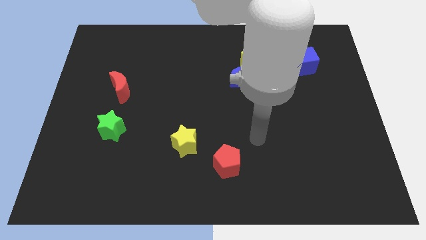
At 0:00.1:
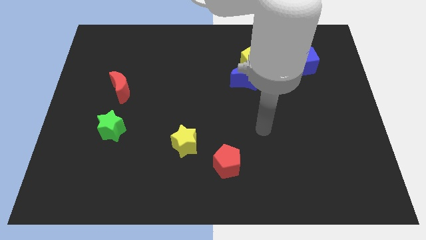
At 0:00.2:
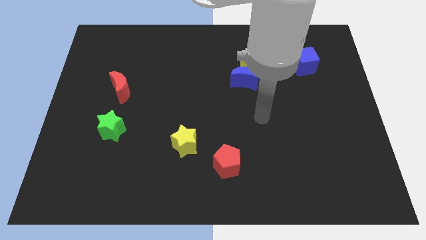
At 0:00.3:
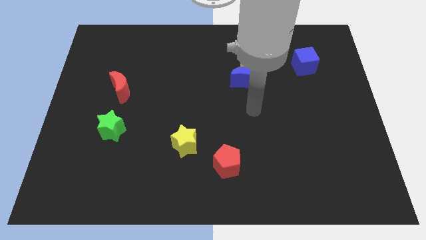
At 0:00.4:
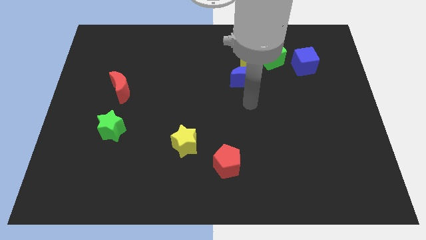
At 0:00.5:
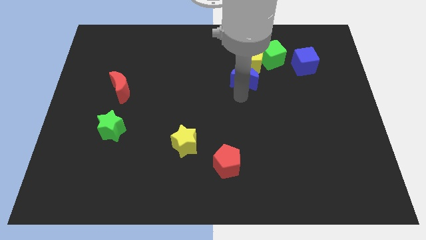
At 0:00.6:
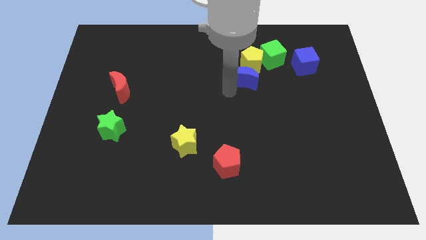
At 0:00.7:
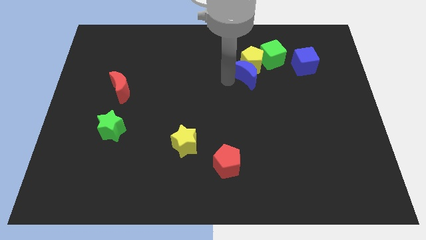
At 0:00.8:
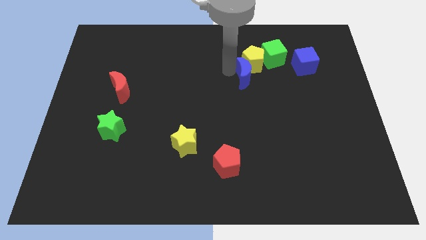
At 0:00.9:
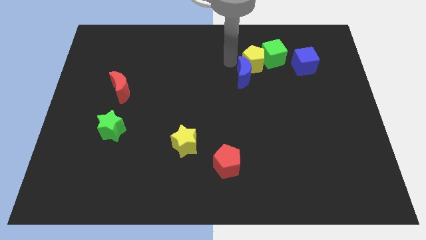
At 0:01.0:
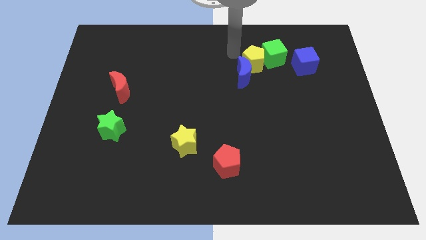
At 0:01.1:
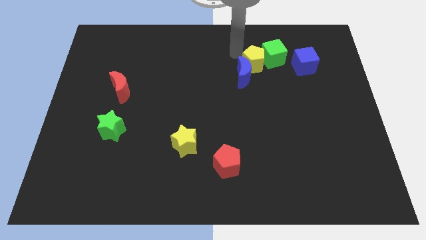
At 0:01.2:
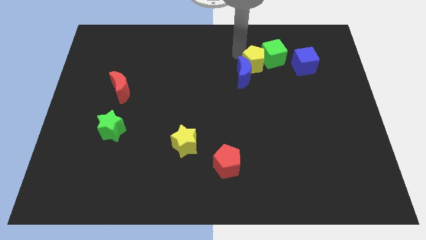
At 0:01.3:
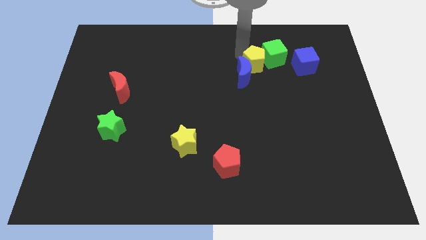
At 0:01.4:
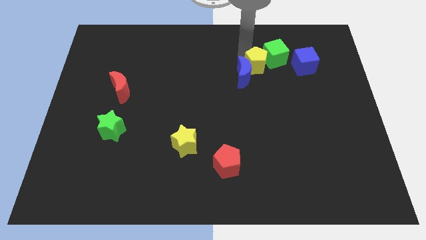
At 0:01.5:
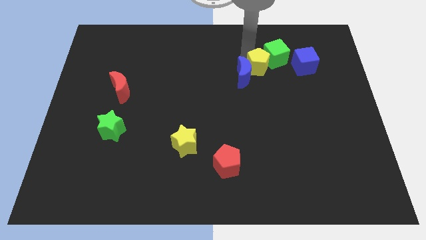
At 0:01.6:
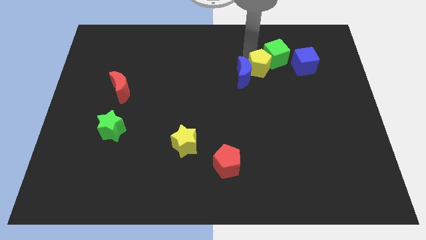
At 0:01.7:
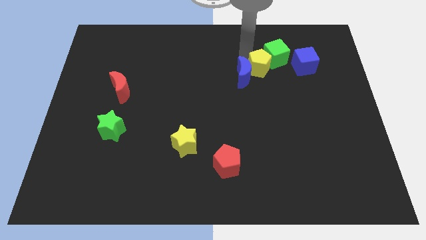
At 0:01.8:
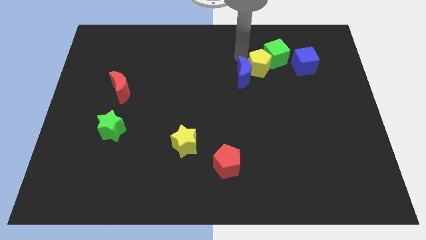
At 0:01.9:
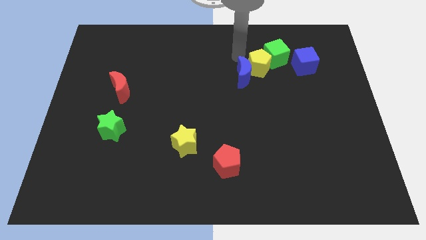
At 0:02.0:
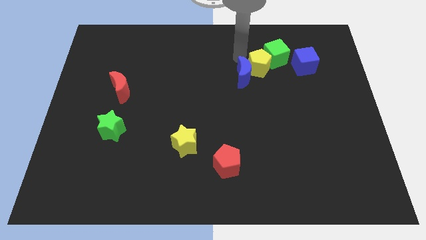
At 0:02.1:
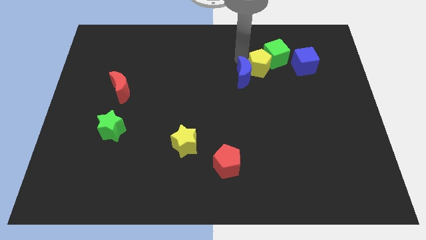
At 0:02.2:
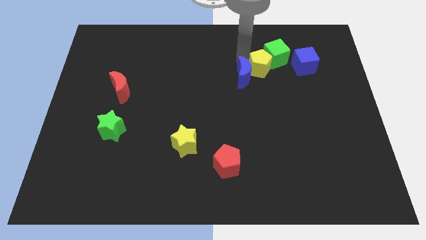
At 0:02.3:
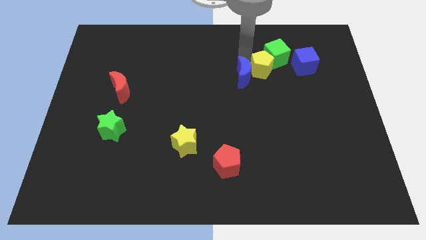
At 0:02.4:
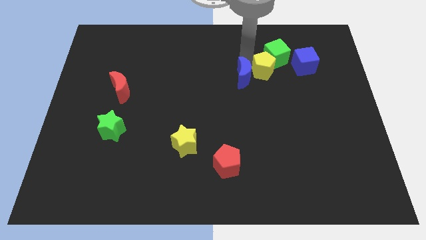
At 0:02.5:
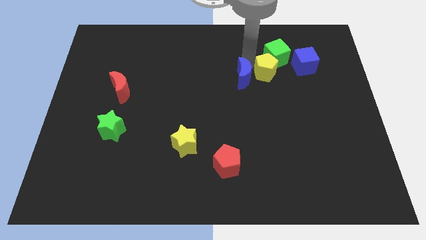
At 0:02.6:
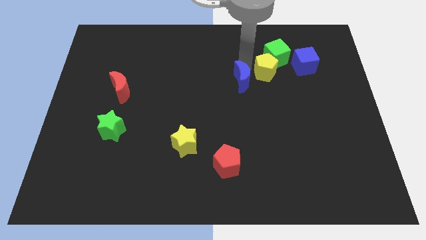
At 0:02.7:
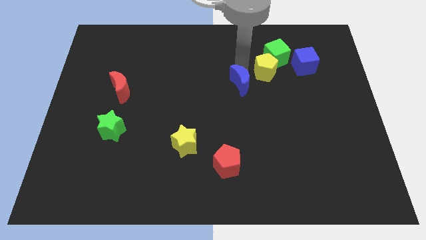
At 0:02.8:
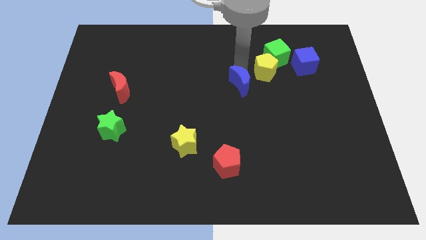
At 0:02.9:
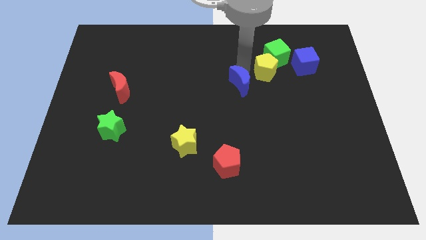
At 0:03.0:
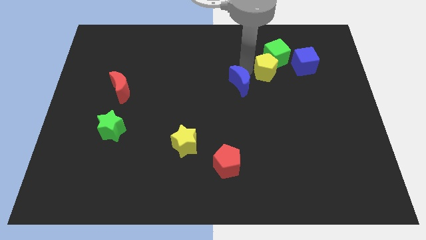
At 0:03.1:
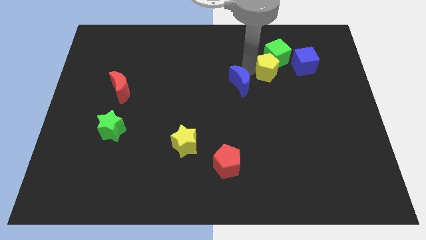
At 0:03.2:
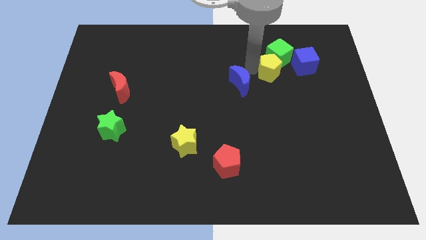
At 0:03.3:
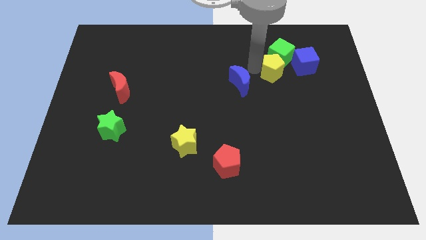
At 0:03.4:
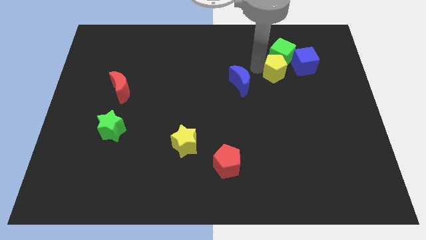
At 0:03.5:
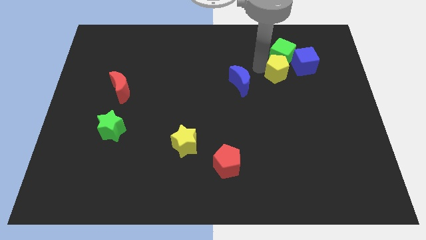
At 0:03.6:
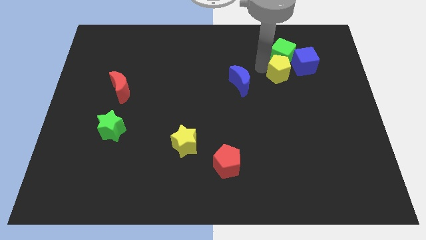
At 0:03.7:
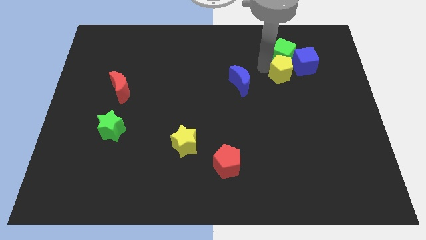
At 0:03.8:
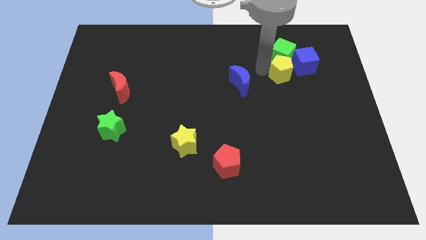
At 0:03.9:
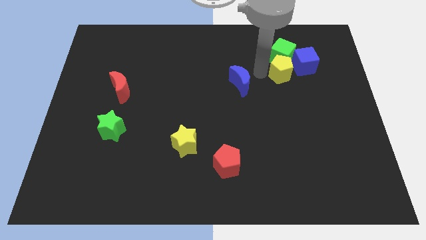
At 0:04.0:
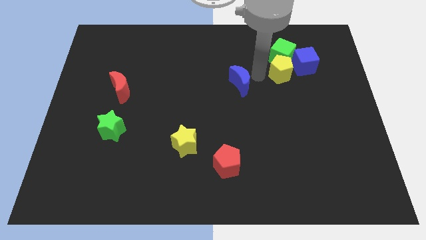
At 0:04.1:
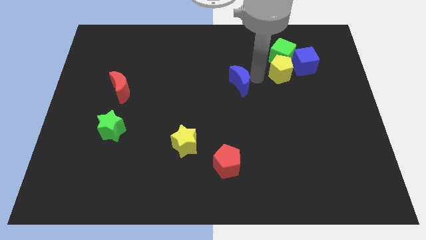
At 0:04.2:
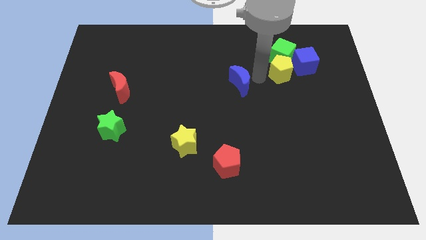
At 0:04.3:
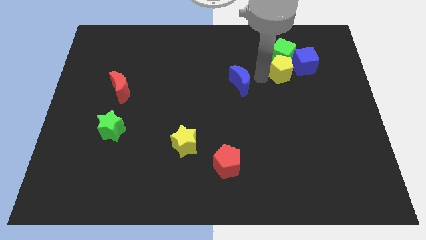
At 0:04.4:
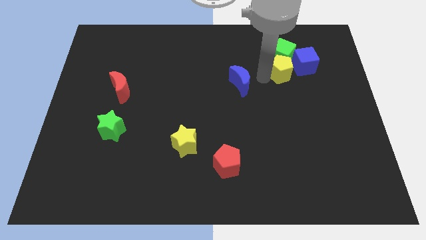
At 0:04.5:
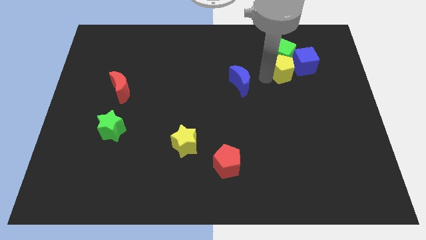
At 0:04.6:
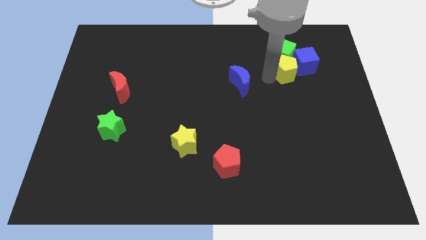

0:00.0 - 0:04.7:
put the yellow pentagon towards the blue cube

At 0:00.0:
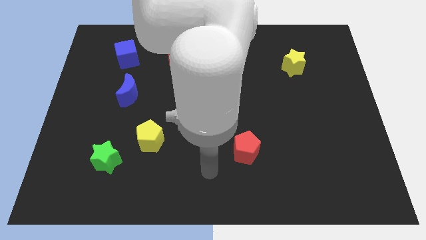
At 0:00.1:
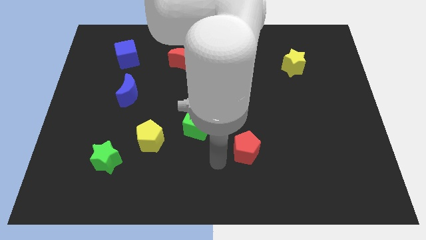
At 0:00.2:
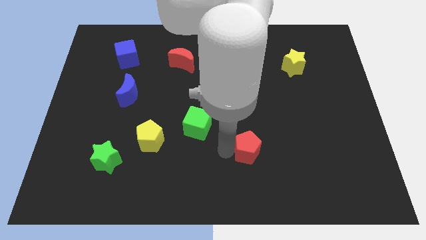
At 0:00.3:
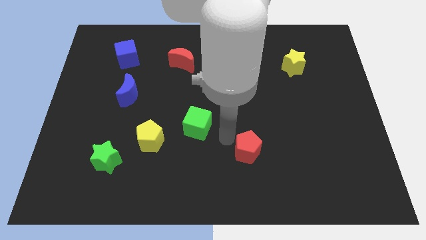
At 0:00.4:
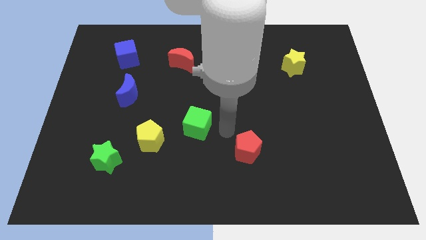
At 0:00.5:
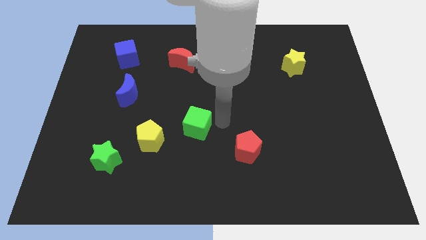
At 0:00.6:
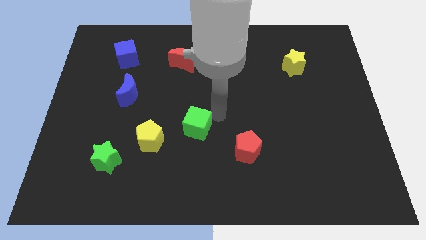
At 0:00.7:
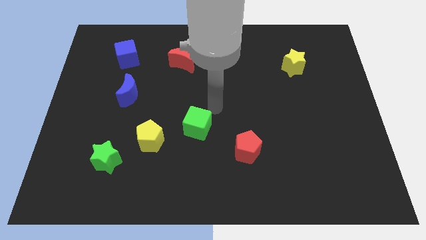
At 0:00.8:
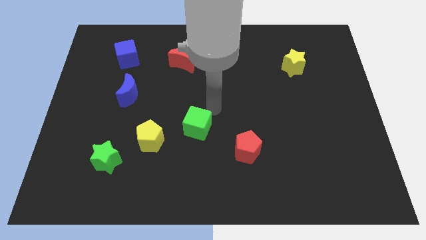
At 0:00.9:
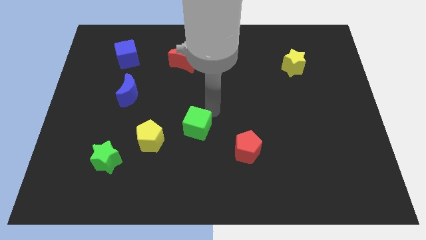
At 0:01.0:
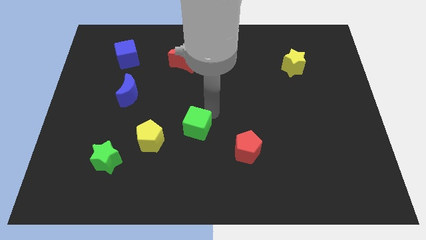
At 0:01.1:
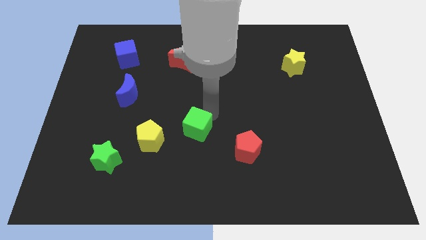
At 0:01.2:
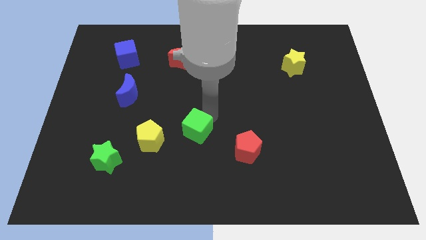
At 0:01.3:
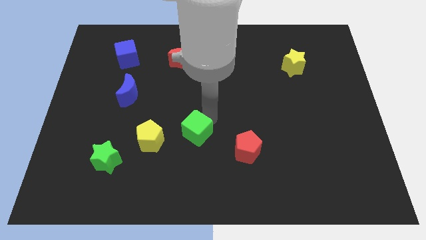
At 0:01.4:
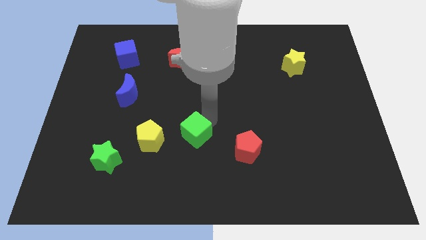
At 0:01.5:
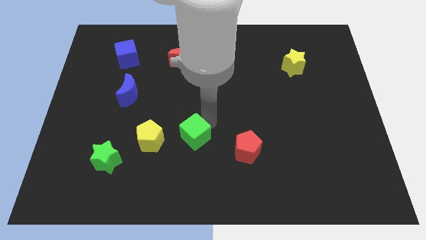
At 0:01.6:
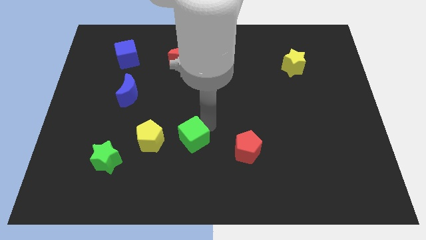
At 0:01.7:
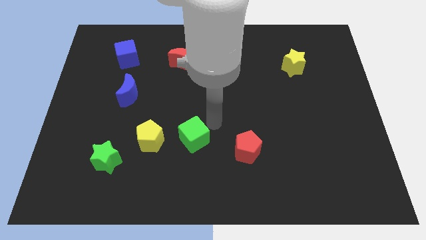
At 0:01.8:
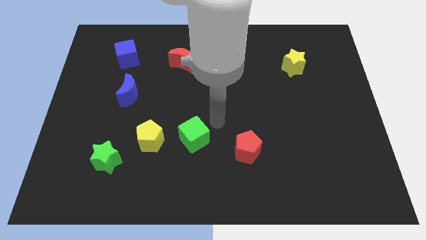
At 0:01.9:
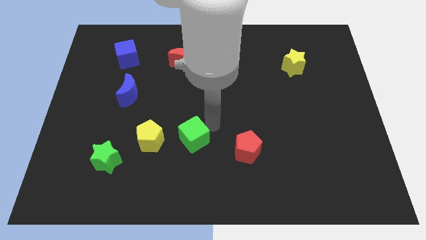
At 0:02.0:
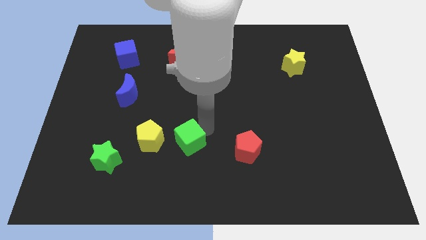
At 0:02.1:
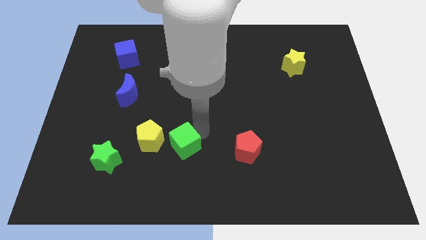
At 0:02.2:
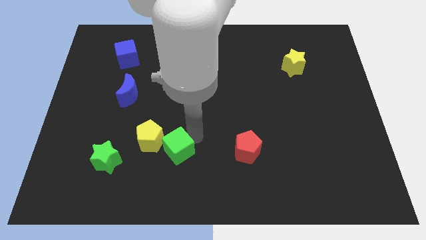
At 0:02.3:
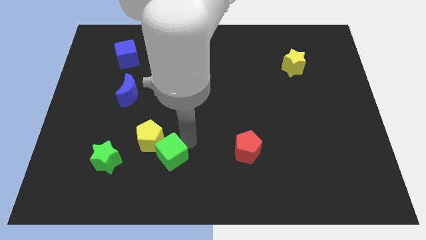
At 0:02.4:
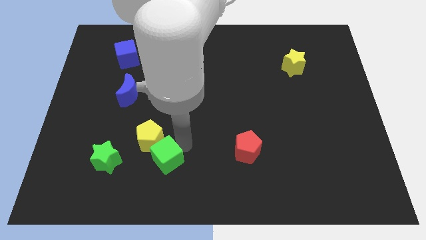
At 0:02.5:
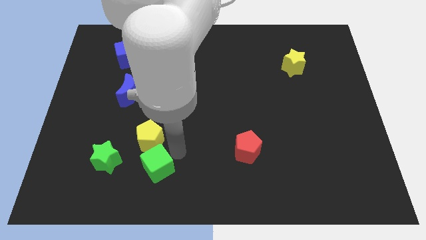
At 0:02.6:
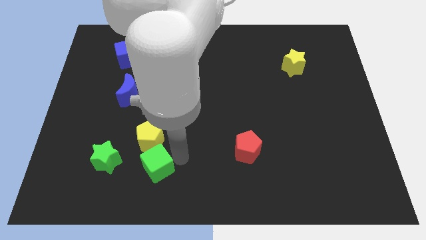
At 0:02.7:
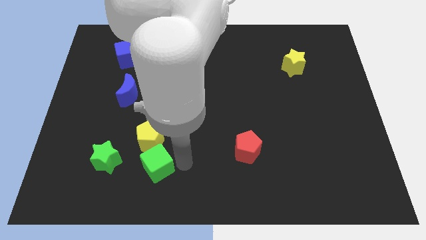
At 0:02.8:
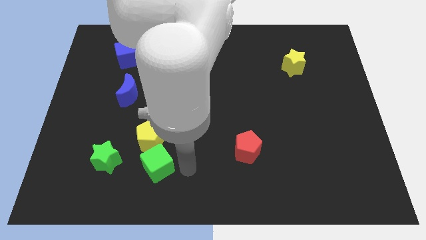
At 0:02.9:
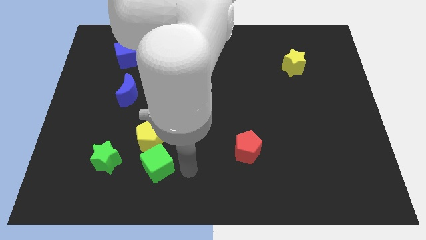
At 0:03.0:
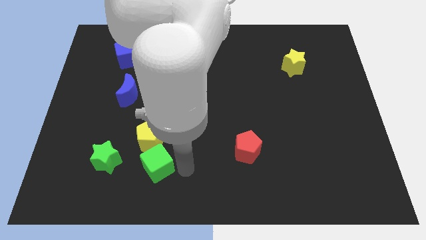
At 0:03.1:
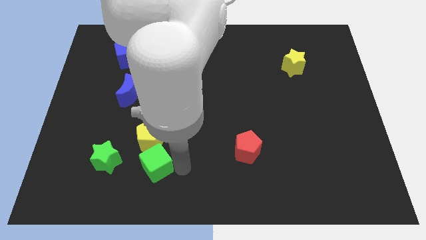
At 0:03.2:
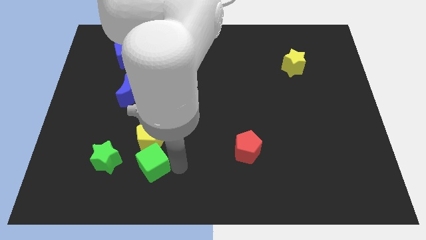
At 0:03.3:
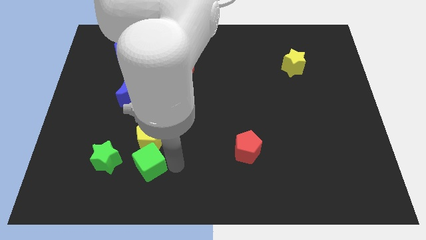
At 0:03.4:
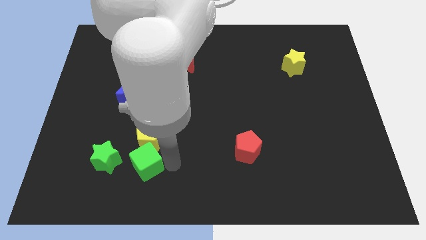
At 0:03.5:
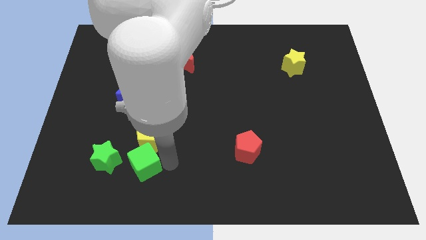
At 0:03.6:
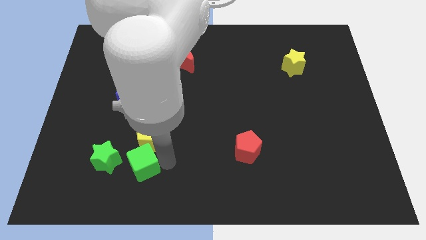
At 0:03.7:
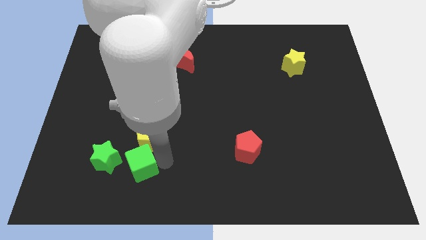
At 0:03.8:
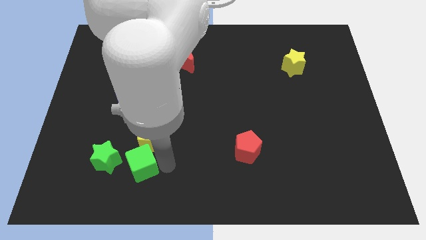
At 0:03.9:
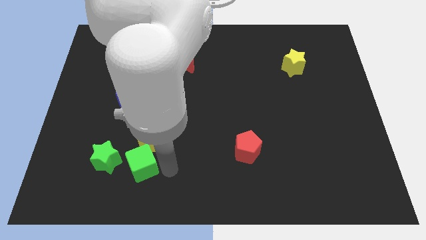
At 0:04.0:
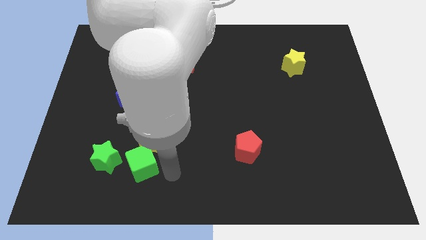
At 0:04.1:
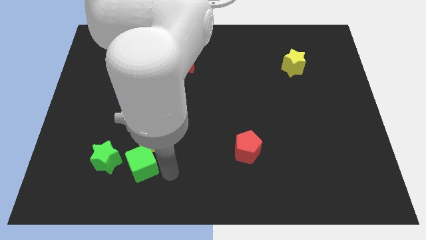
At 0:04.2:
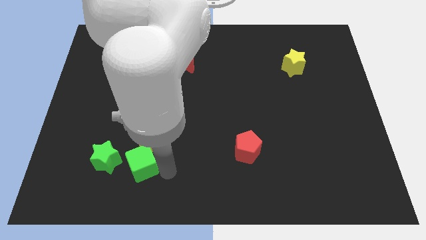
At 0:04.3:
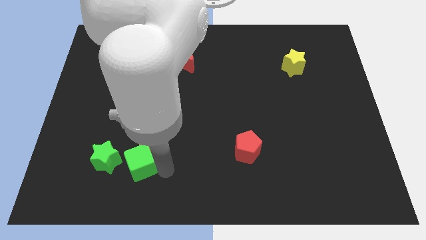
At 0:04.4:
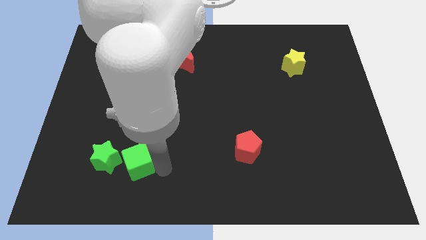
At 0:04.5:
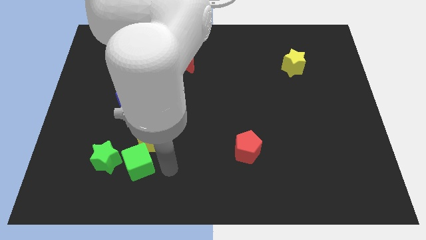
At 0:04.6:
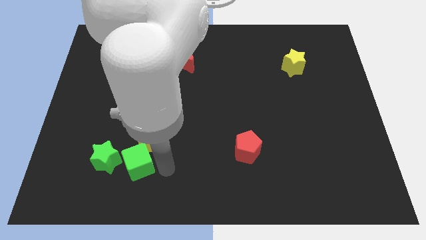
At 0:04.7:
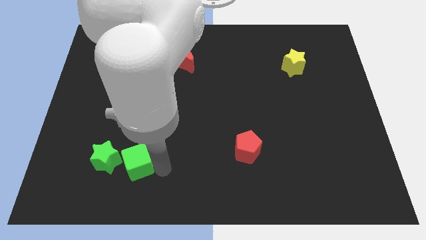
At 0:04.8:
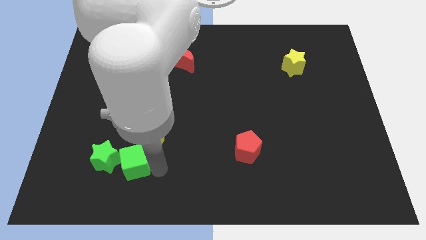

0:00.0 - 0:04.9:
slide the green cube to the green star
